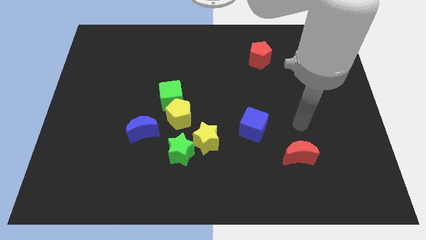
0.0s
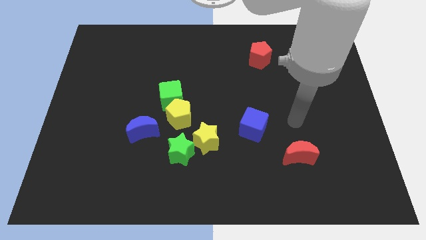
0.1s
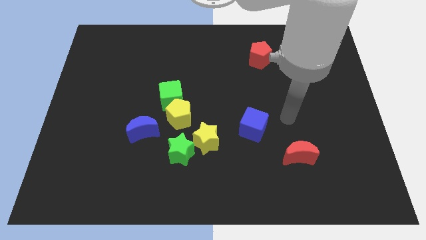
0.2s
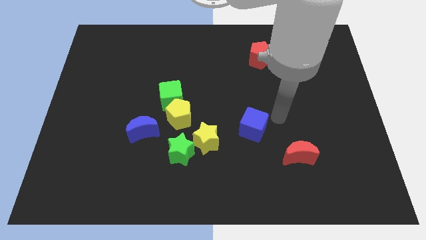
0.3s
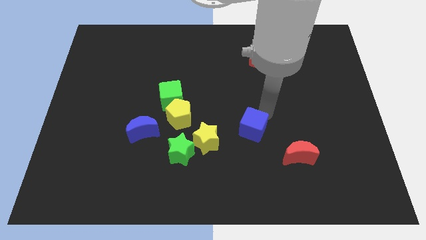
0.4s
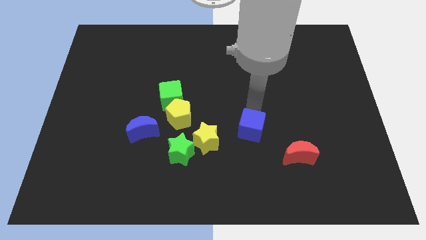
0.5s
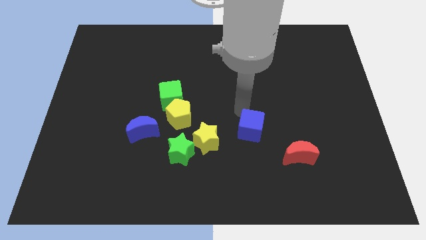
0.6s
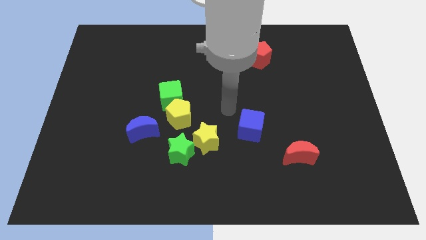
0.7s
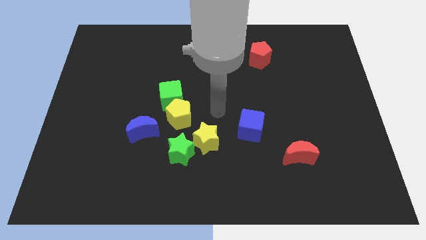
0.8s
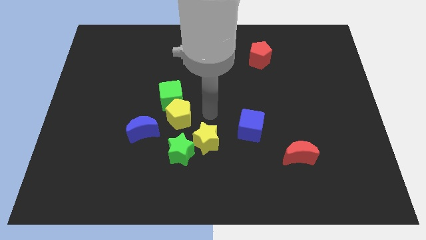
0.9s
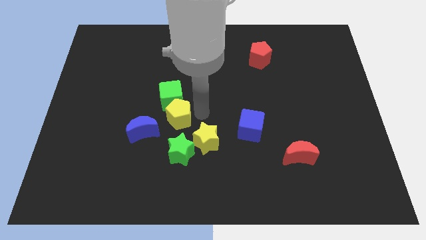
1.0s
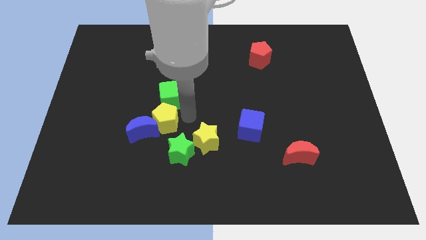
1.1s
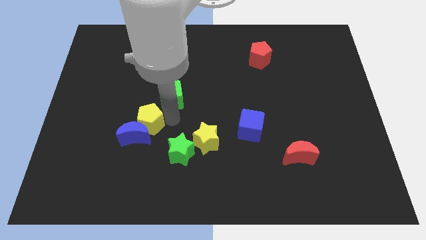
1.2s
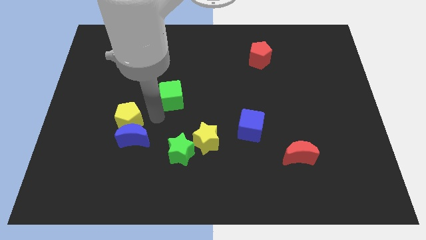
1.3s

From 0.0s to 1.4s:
pull the green cube apart from the yellow pentagon

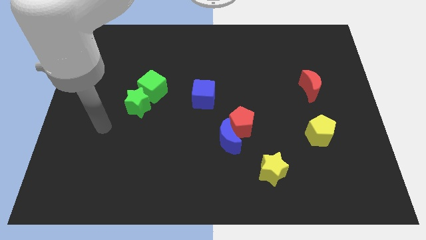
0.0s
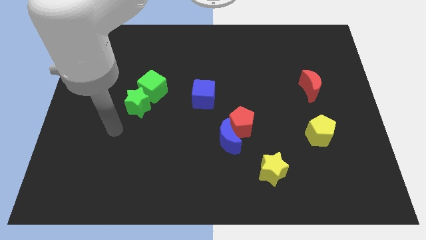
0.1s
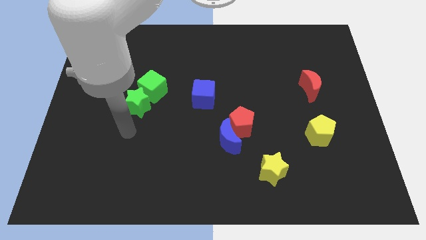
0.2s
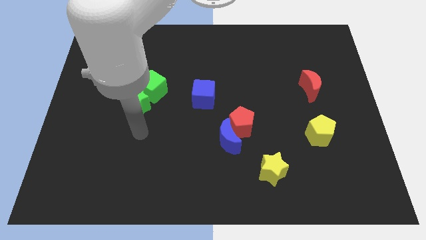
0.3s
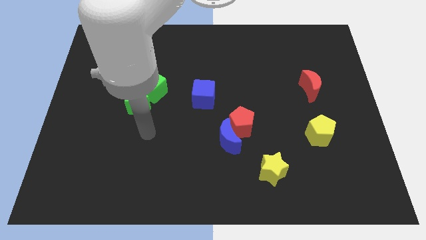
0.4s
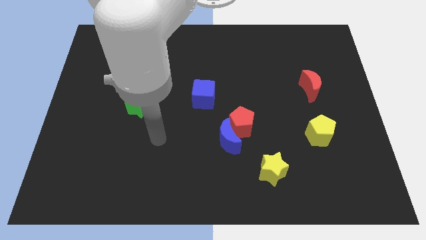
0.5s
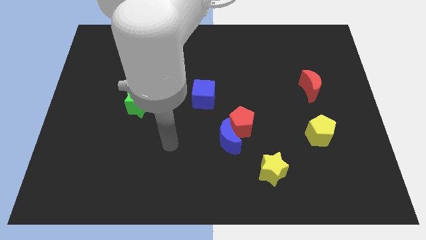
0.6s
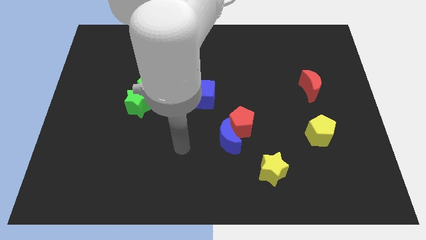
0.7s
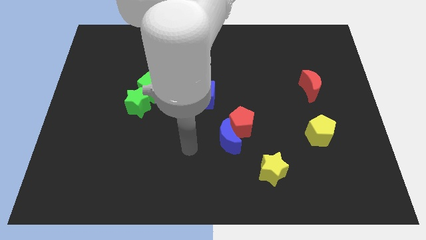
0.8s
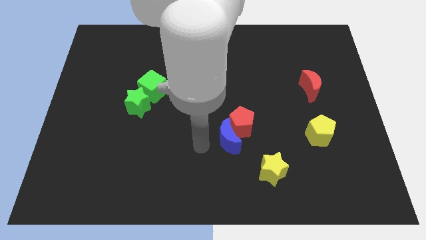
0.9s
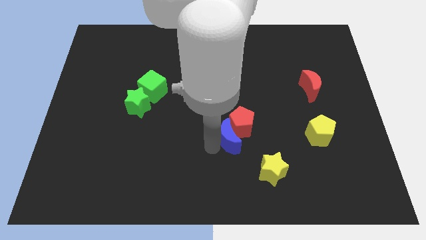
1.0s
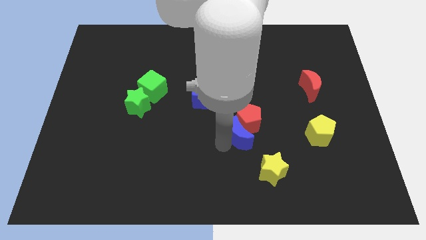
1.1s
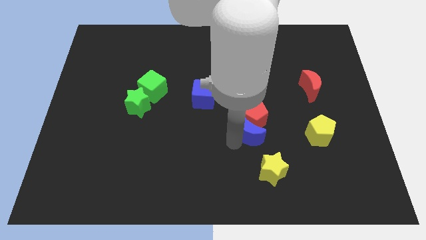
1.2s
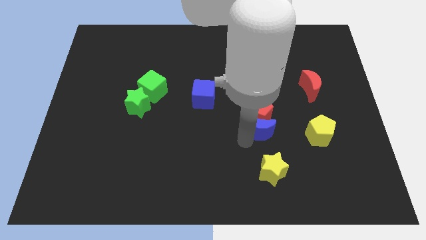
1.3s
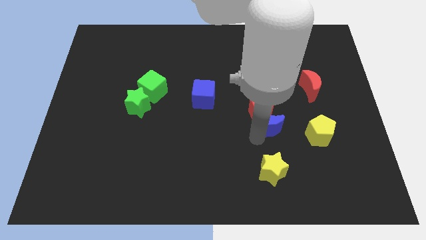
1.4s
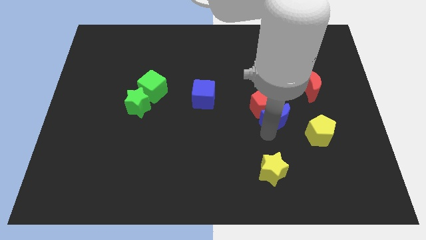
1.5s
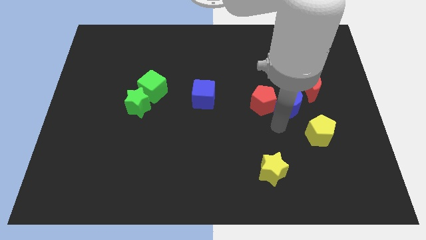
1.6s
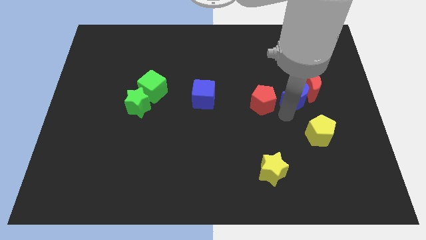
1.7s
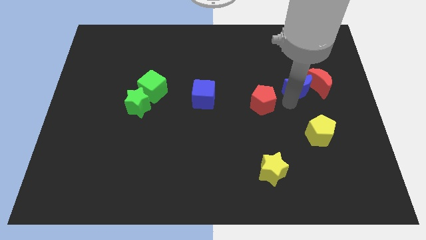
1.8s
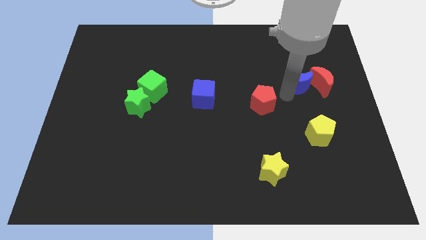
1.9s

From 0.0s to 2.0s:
separate the red pentagon from the blue moon

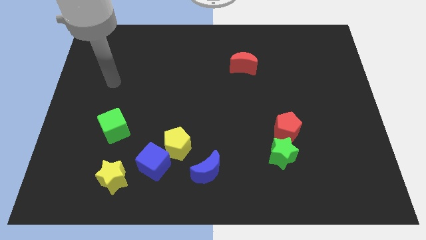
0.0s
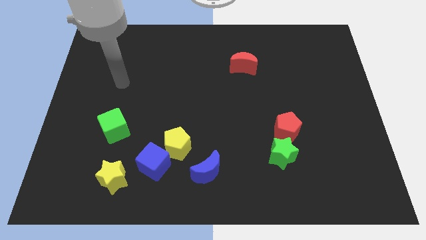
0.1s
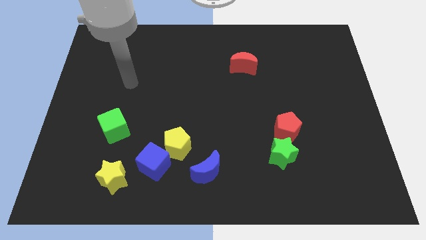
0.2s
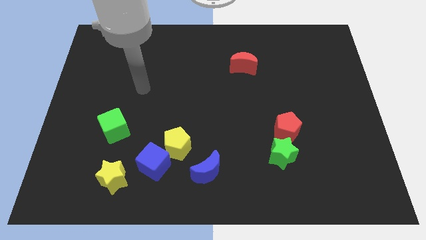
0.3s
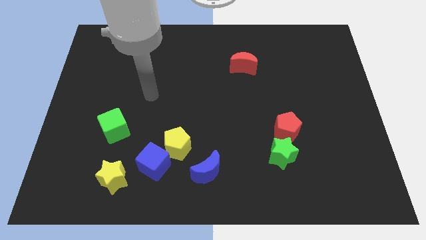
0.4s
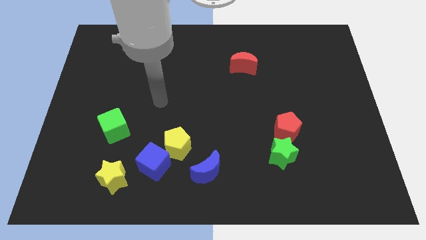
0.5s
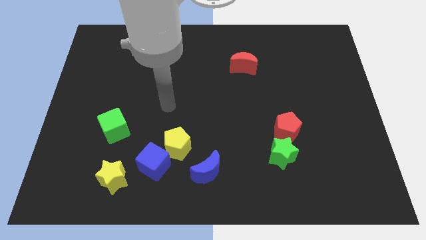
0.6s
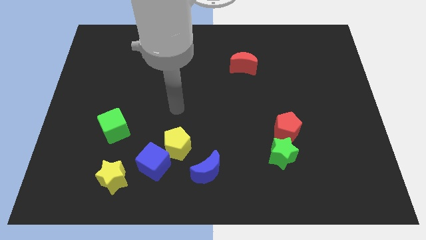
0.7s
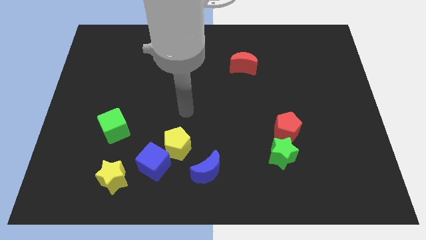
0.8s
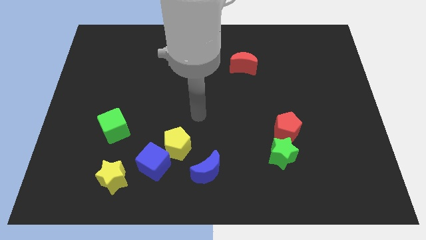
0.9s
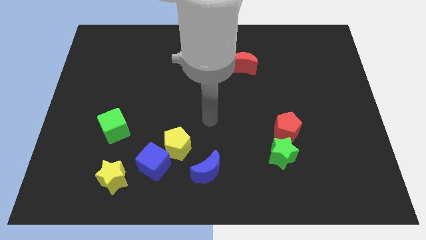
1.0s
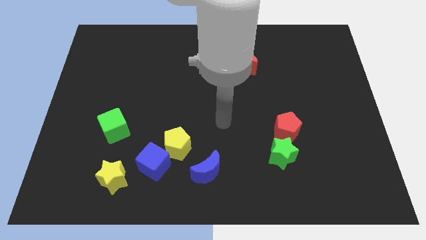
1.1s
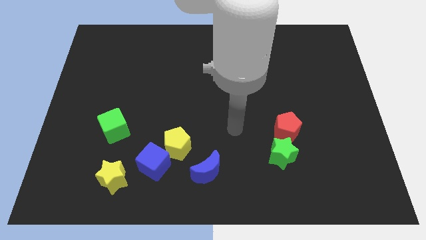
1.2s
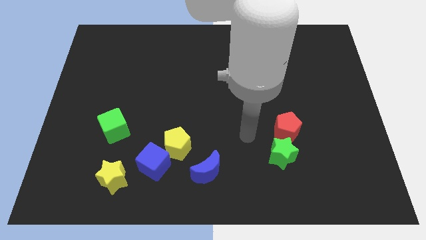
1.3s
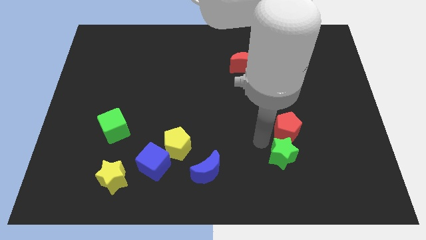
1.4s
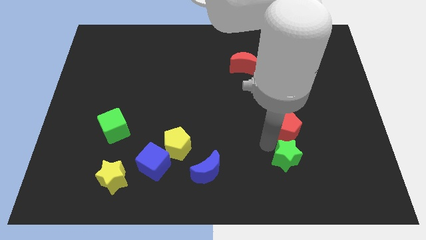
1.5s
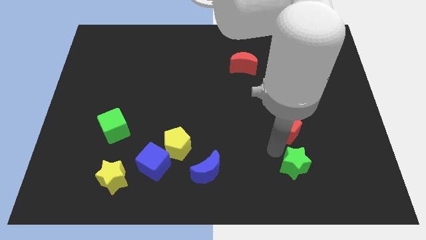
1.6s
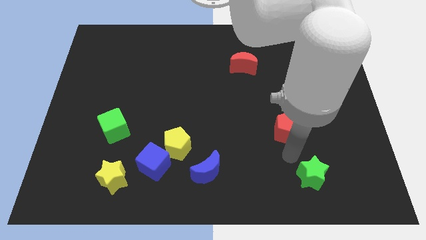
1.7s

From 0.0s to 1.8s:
separate the red pentagon from the green star

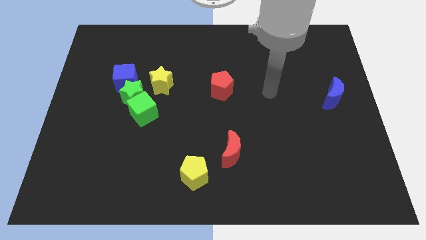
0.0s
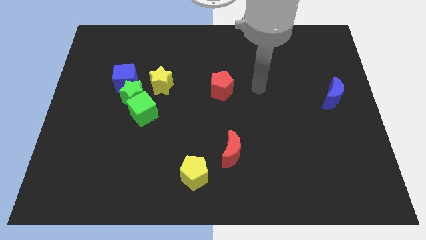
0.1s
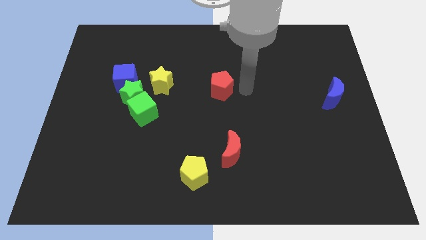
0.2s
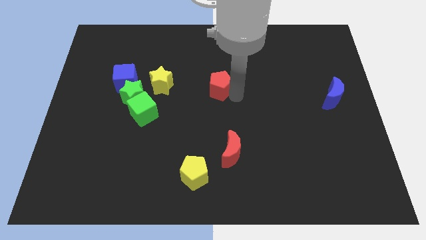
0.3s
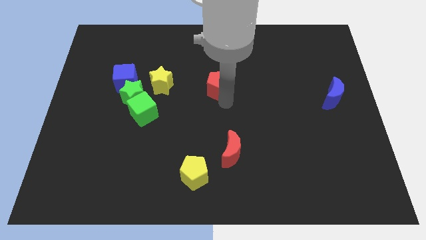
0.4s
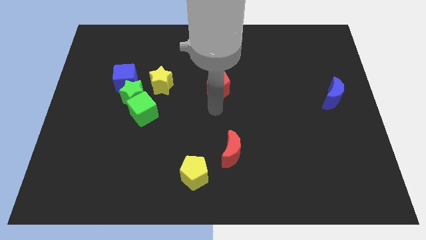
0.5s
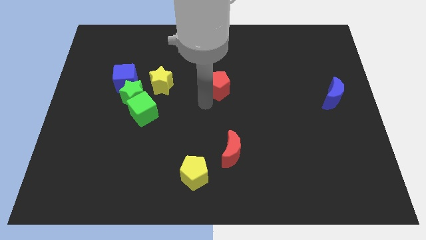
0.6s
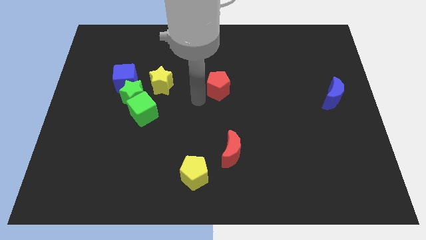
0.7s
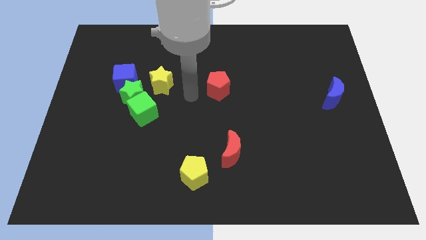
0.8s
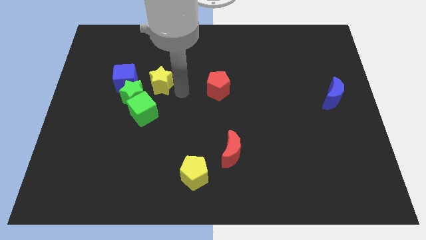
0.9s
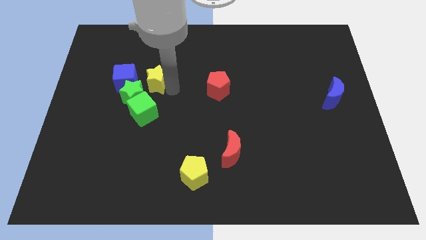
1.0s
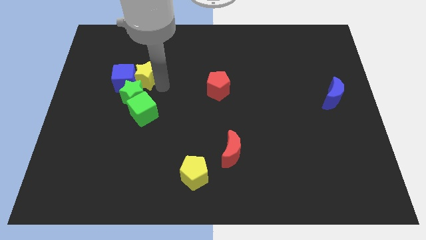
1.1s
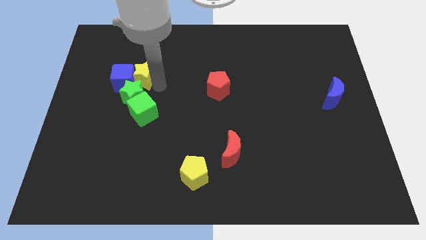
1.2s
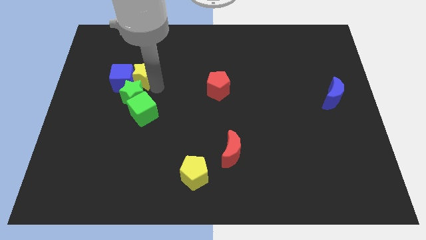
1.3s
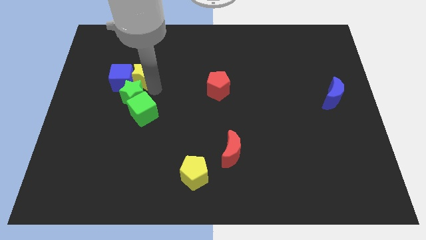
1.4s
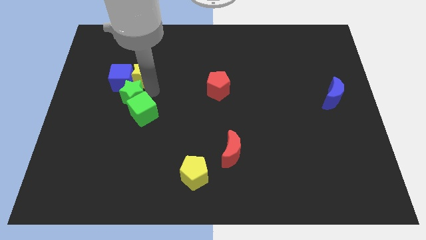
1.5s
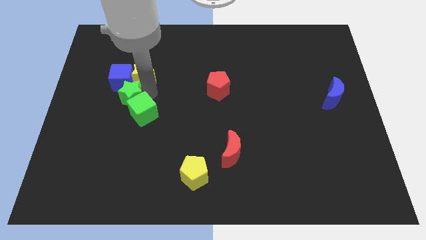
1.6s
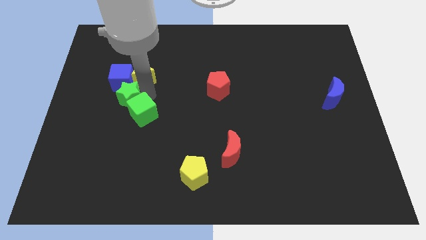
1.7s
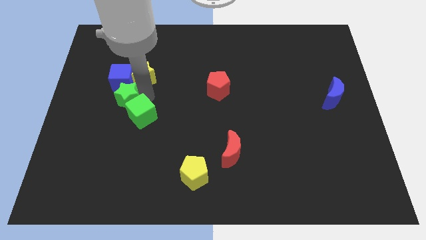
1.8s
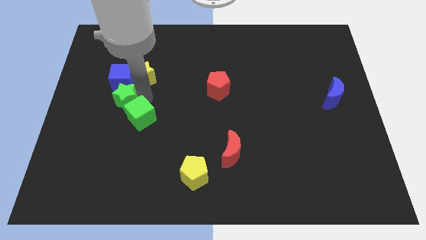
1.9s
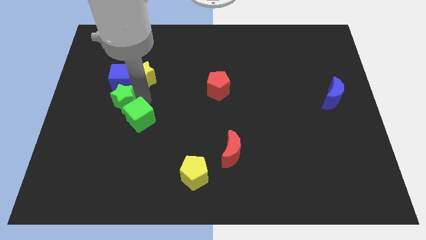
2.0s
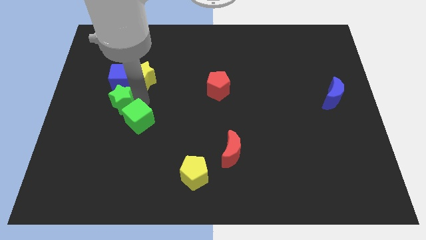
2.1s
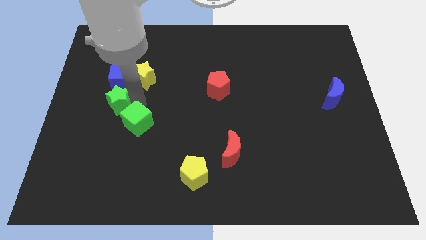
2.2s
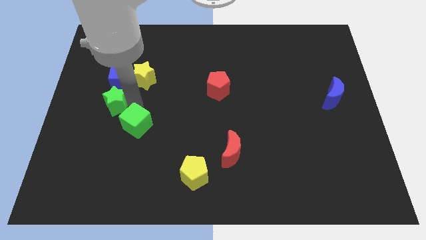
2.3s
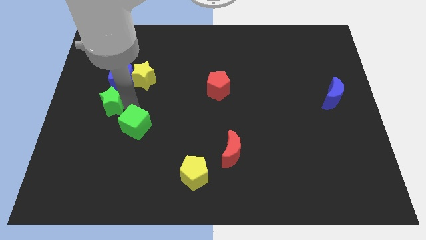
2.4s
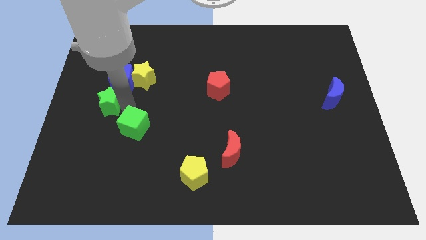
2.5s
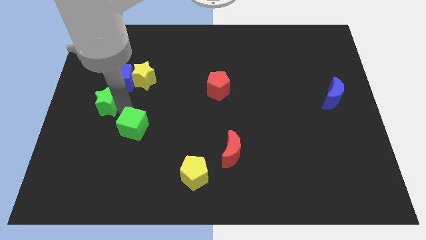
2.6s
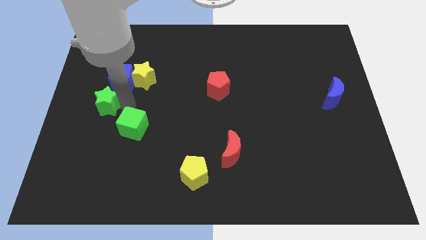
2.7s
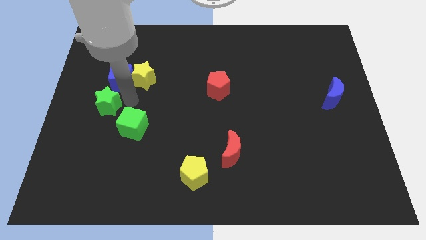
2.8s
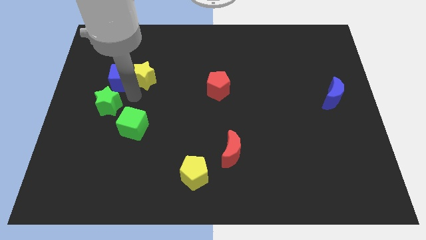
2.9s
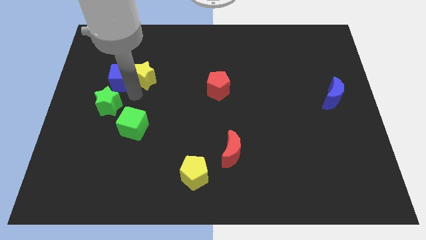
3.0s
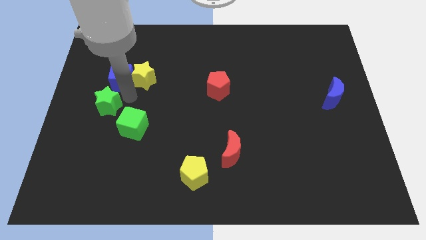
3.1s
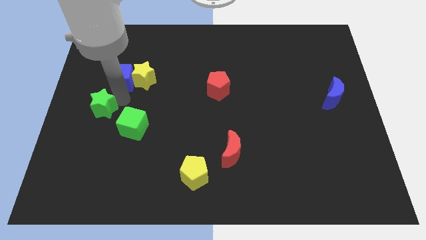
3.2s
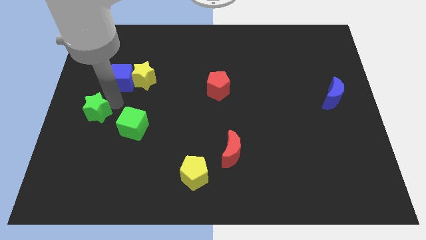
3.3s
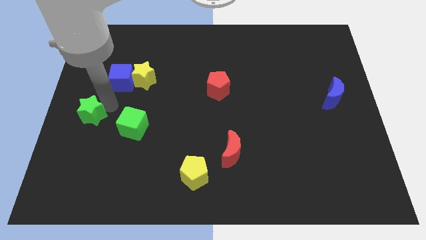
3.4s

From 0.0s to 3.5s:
separate the green star from the group

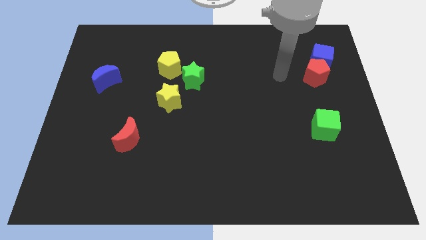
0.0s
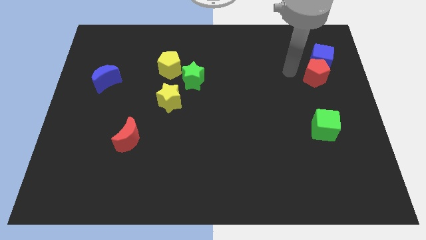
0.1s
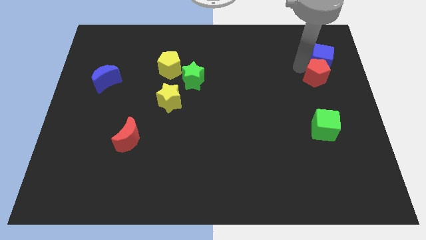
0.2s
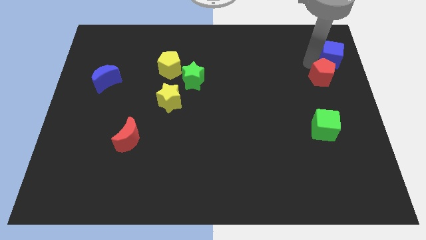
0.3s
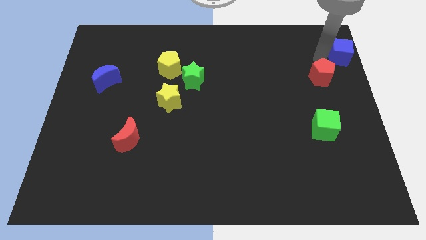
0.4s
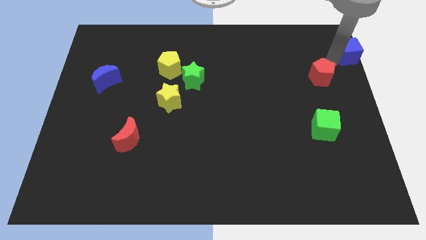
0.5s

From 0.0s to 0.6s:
separate the red pentagon from the blue cube

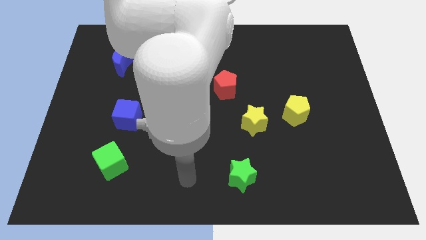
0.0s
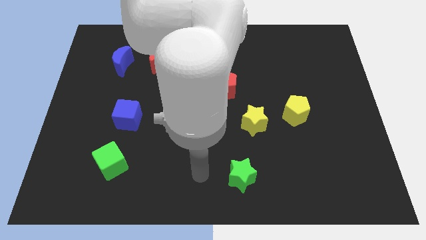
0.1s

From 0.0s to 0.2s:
move the yellow star away from the yellow pentagon
